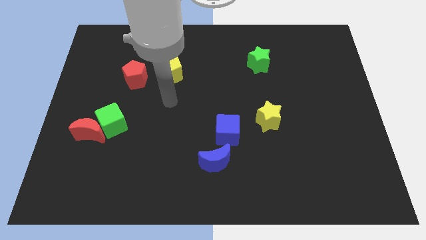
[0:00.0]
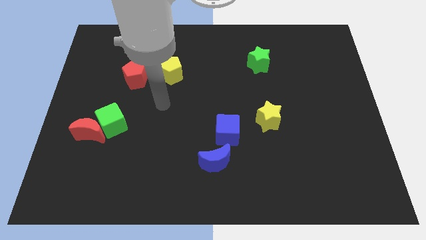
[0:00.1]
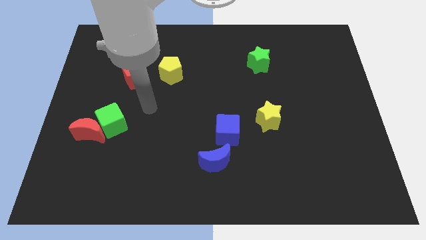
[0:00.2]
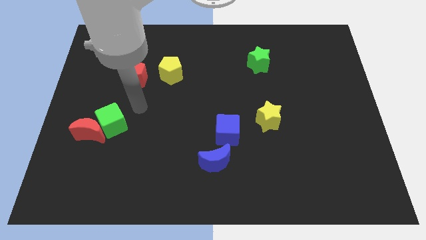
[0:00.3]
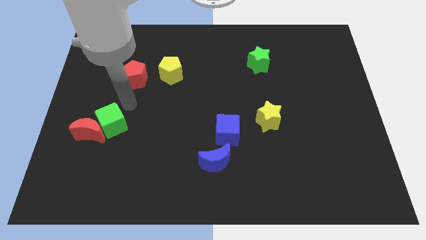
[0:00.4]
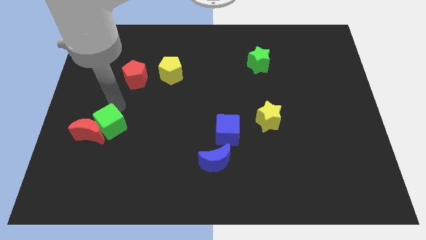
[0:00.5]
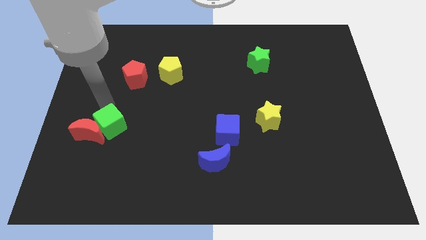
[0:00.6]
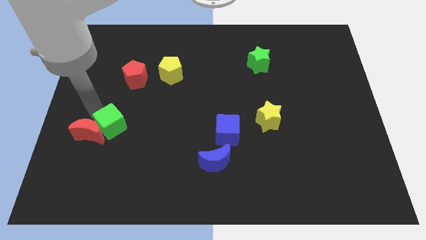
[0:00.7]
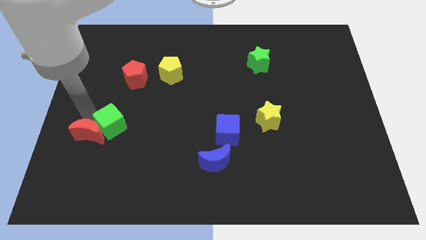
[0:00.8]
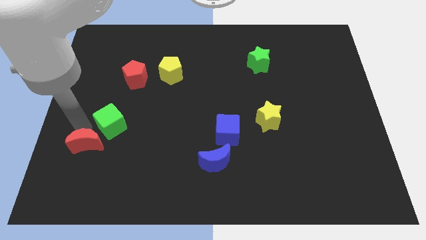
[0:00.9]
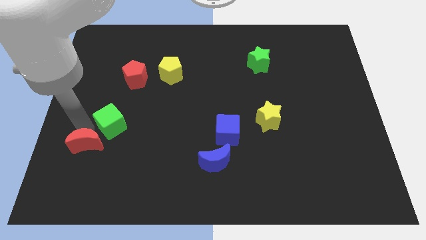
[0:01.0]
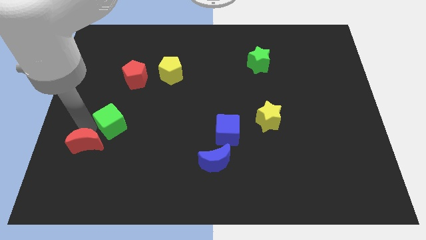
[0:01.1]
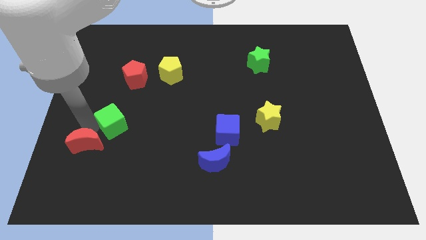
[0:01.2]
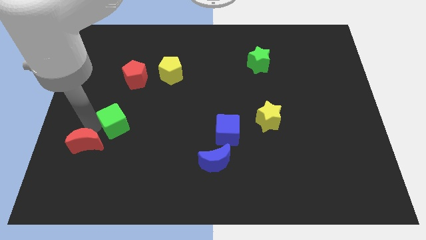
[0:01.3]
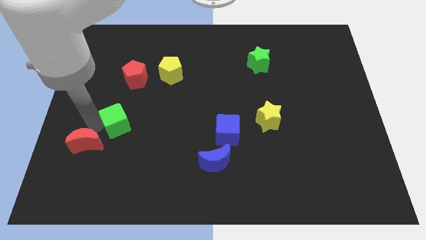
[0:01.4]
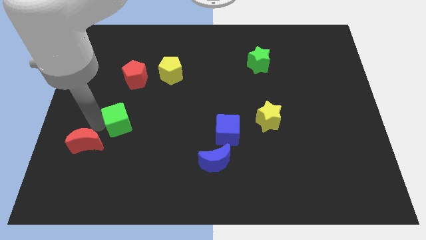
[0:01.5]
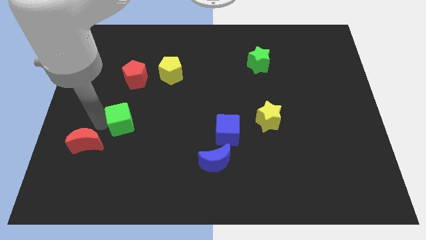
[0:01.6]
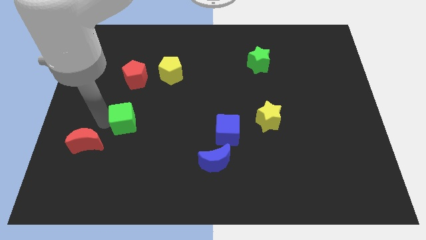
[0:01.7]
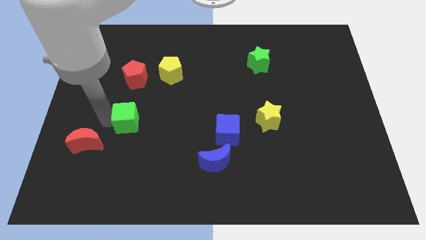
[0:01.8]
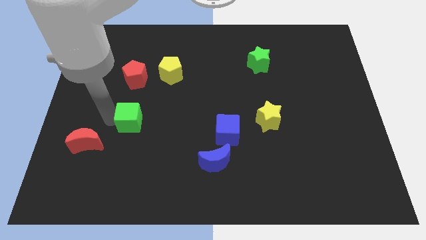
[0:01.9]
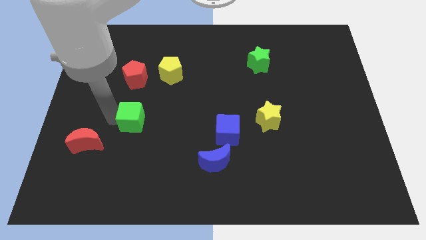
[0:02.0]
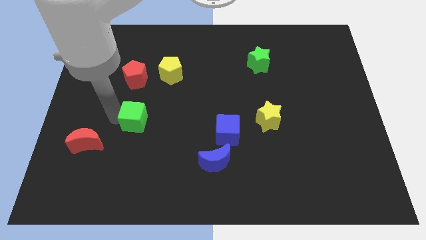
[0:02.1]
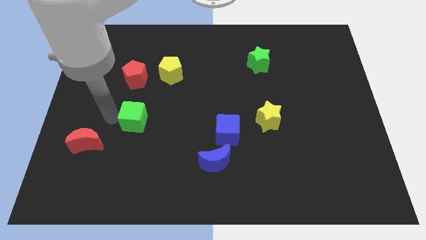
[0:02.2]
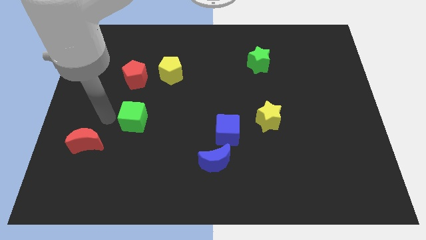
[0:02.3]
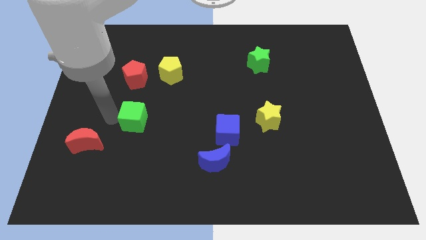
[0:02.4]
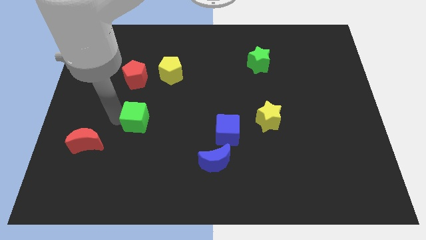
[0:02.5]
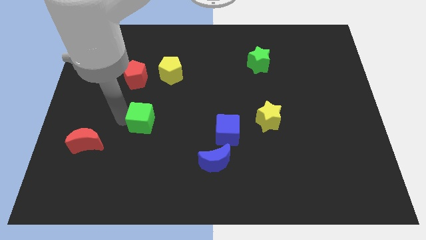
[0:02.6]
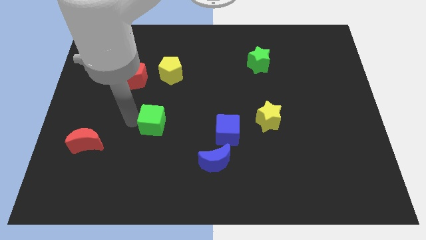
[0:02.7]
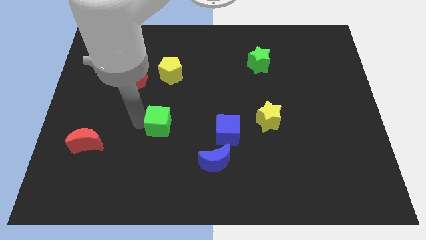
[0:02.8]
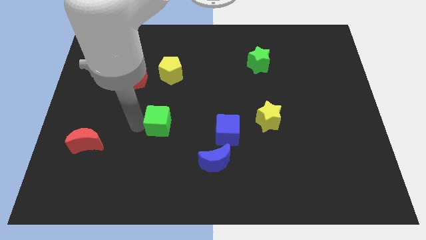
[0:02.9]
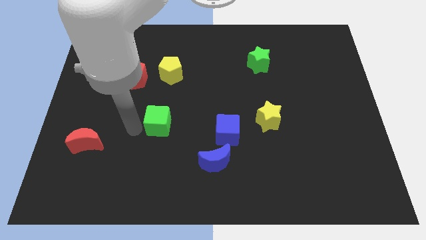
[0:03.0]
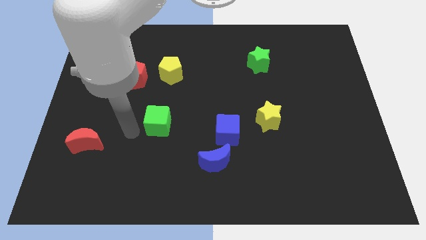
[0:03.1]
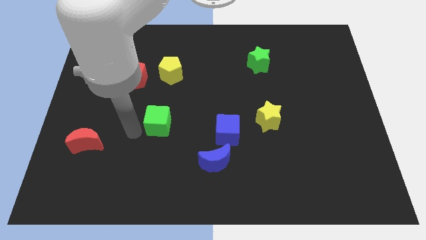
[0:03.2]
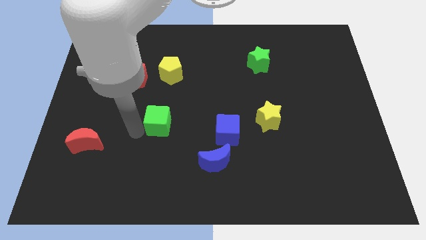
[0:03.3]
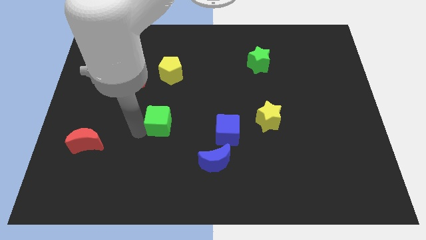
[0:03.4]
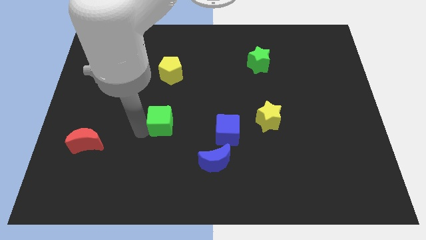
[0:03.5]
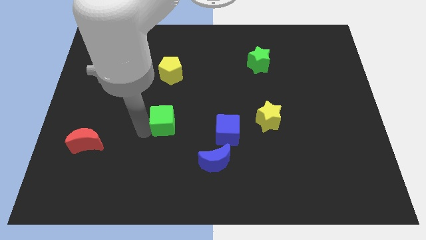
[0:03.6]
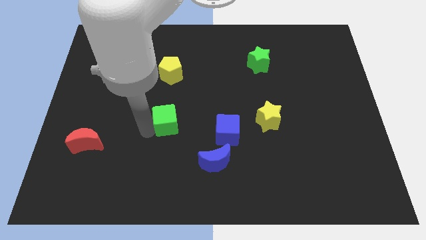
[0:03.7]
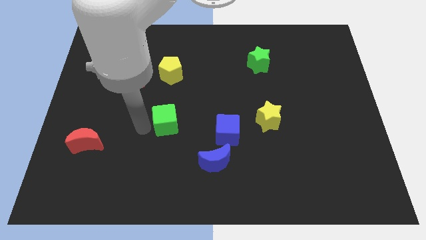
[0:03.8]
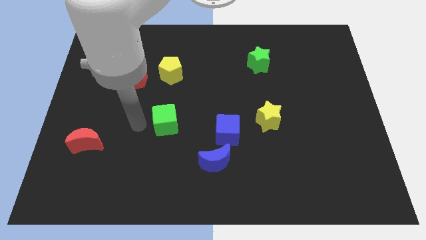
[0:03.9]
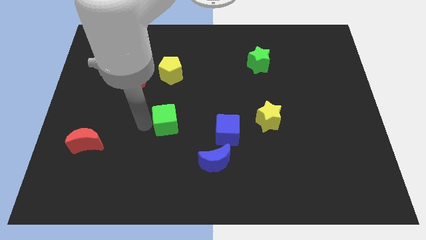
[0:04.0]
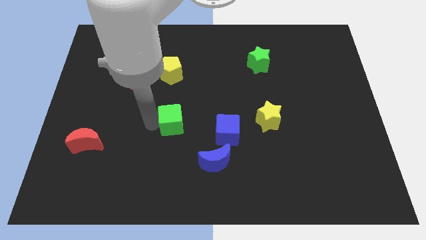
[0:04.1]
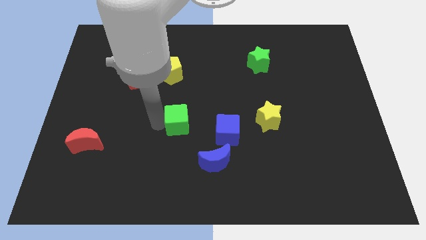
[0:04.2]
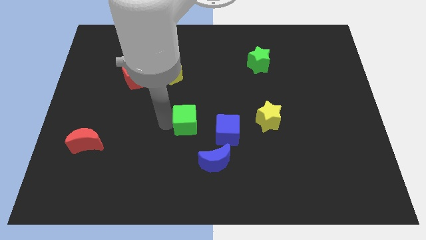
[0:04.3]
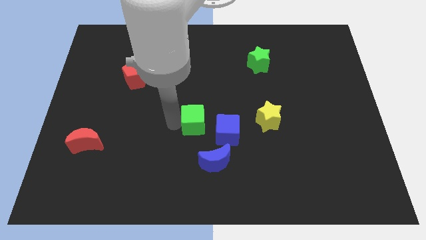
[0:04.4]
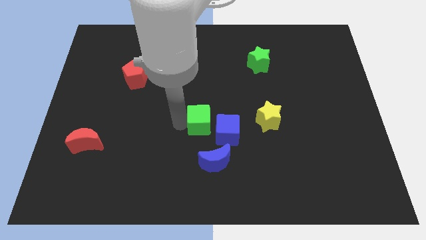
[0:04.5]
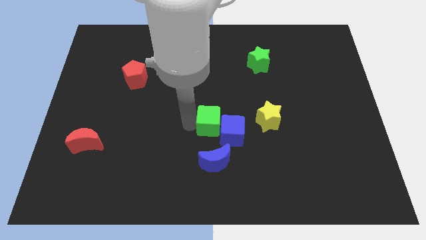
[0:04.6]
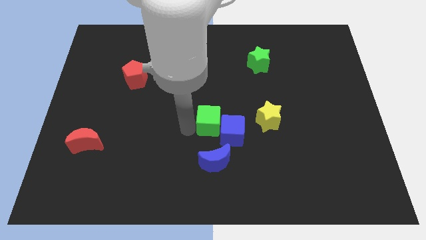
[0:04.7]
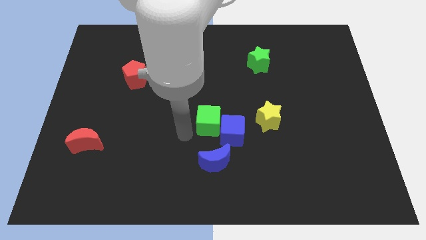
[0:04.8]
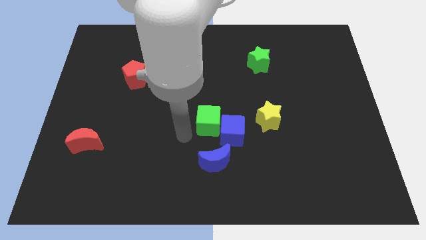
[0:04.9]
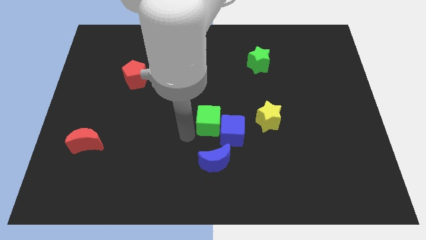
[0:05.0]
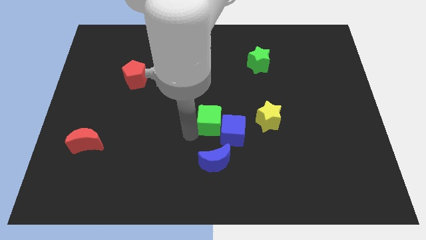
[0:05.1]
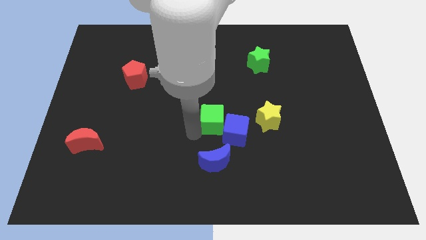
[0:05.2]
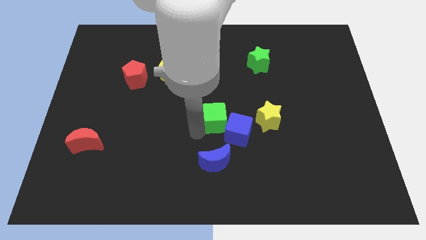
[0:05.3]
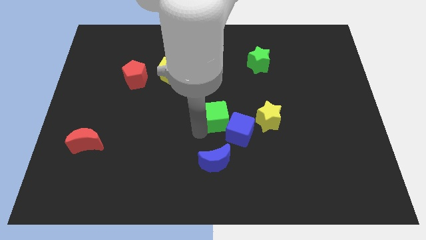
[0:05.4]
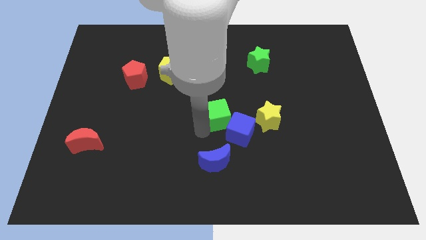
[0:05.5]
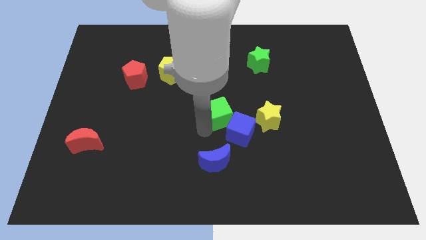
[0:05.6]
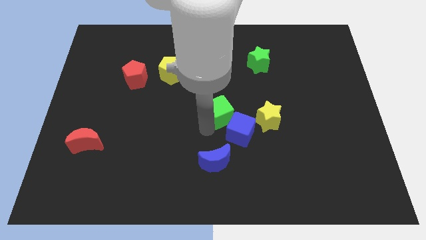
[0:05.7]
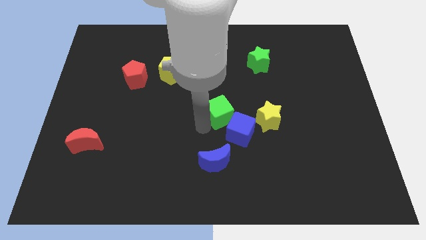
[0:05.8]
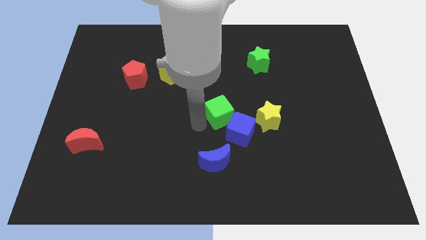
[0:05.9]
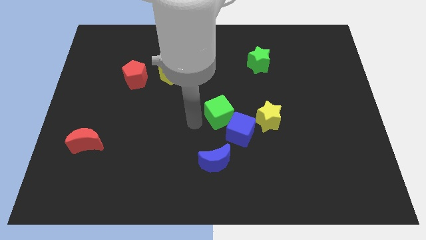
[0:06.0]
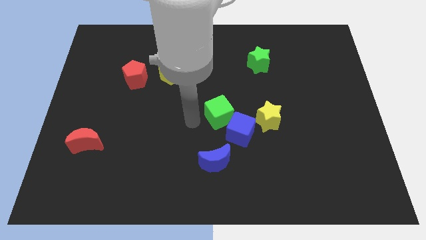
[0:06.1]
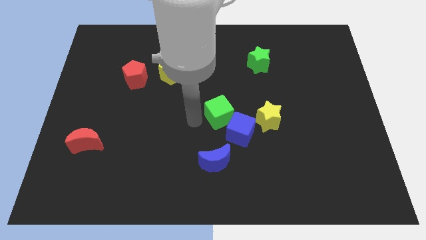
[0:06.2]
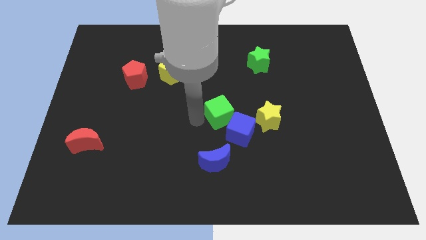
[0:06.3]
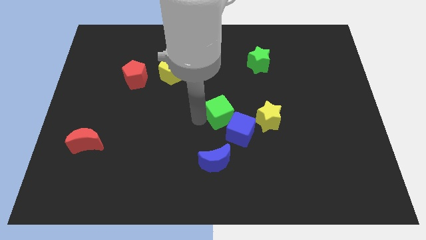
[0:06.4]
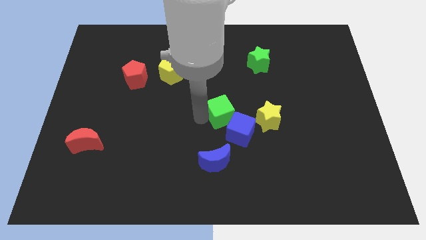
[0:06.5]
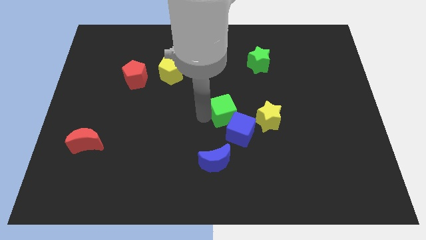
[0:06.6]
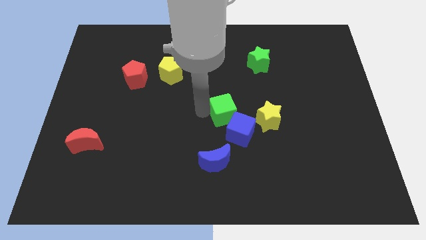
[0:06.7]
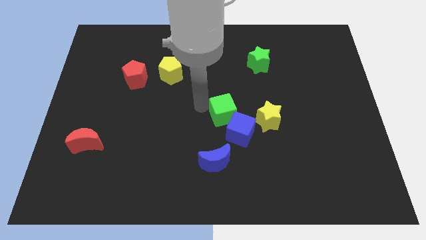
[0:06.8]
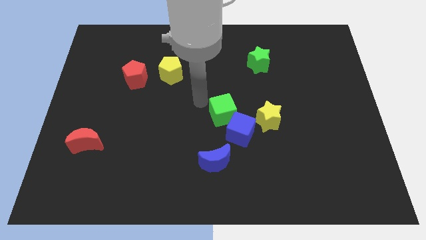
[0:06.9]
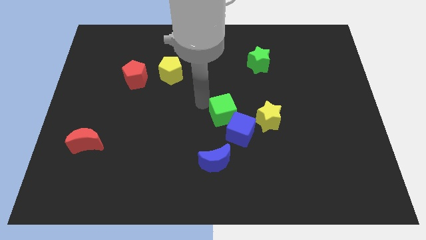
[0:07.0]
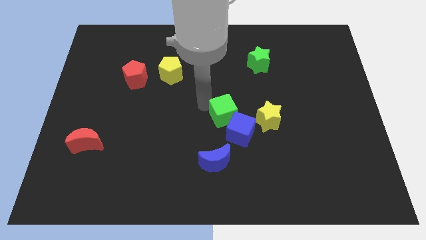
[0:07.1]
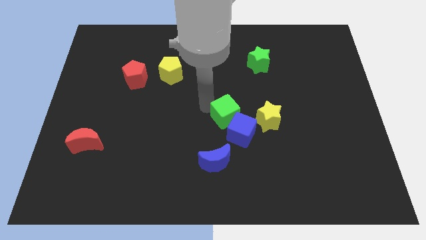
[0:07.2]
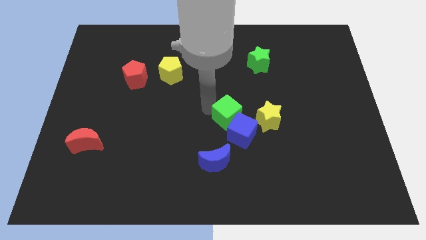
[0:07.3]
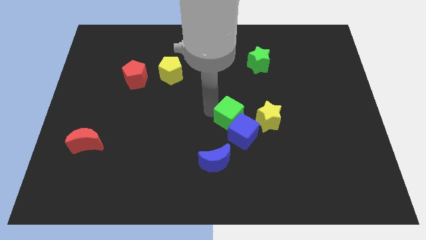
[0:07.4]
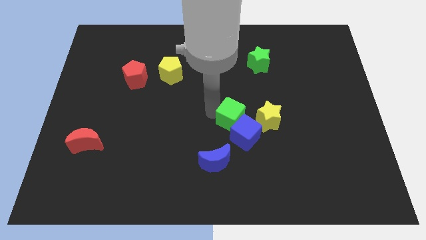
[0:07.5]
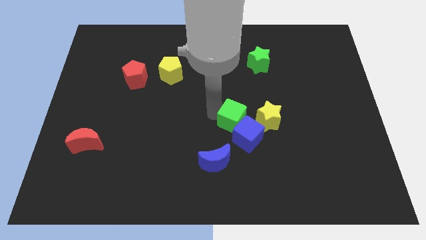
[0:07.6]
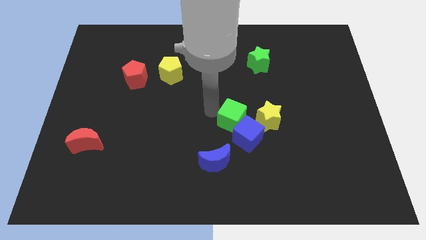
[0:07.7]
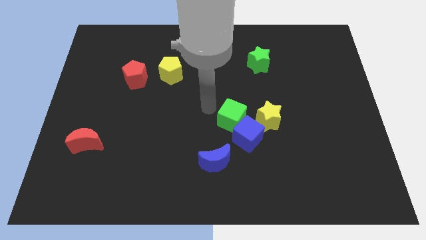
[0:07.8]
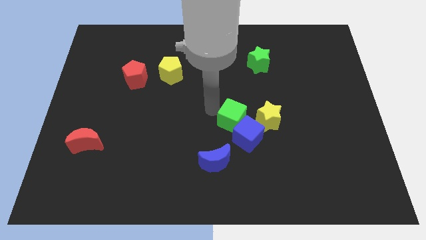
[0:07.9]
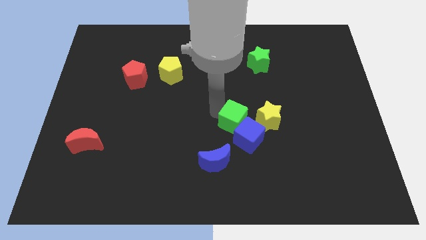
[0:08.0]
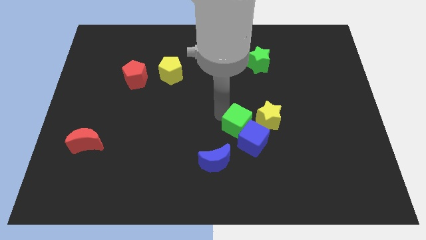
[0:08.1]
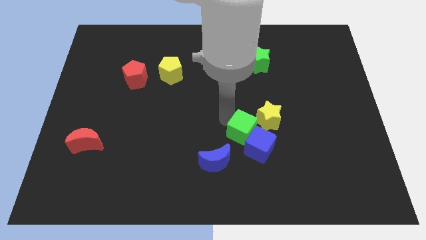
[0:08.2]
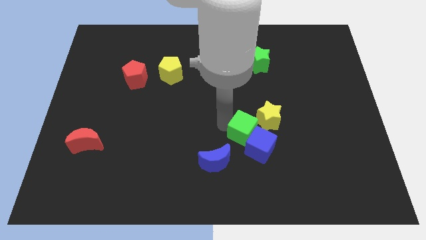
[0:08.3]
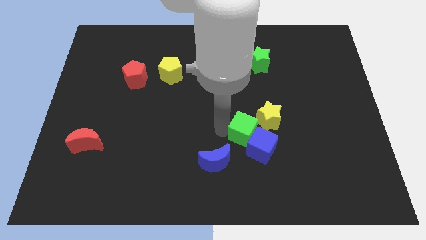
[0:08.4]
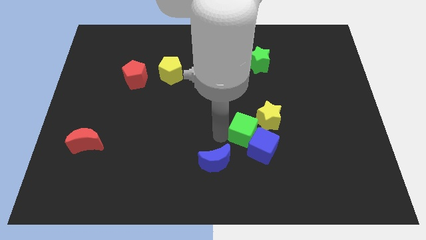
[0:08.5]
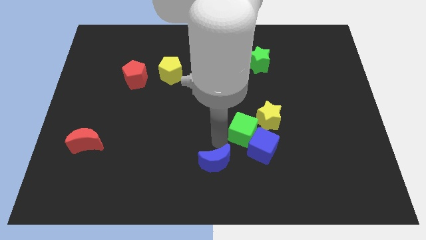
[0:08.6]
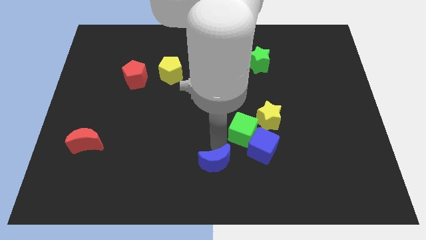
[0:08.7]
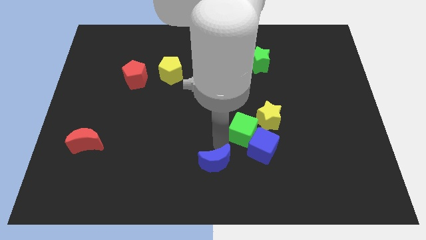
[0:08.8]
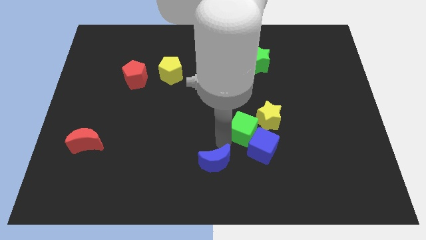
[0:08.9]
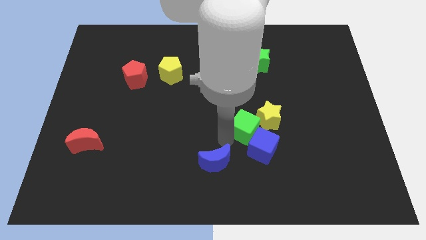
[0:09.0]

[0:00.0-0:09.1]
put the green cube next to the yellow star
